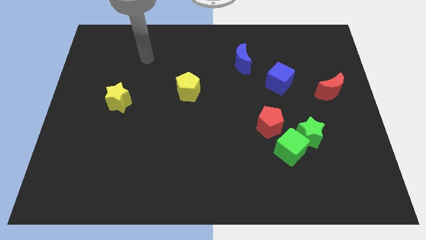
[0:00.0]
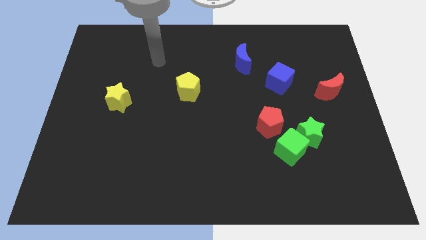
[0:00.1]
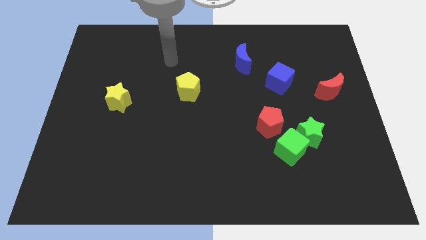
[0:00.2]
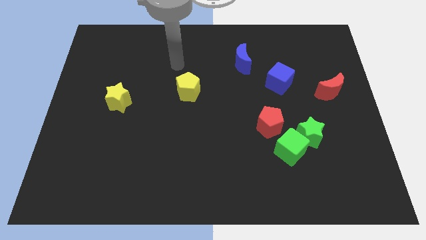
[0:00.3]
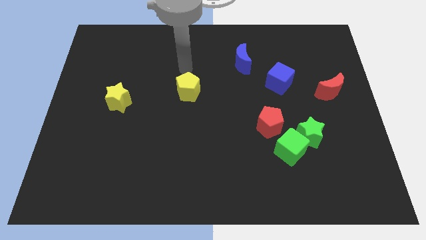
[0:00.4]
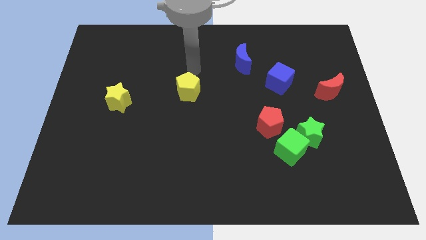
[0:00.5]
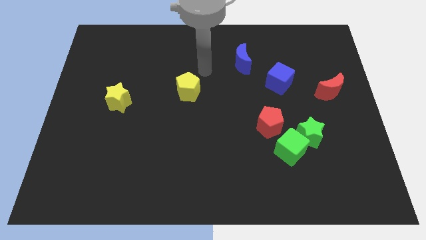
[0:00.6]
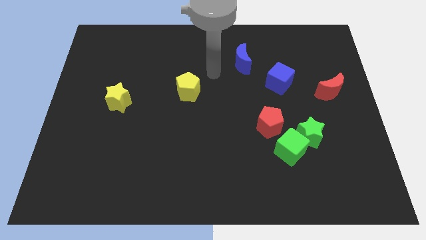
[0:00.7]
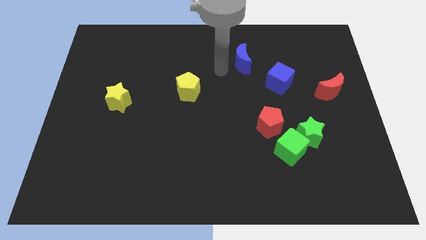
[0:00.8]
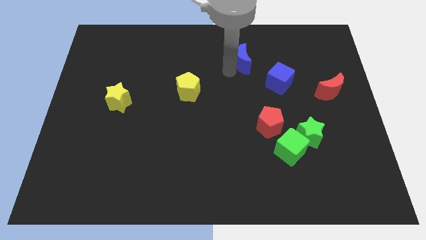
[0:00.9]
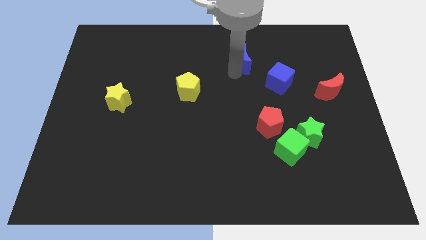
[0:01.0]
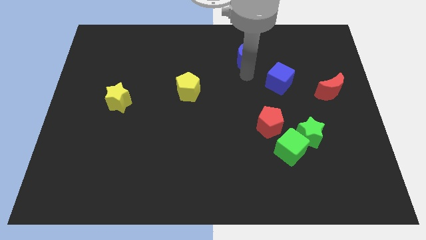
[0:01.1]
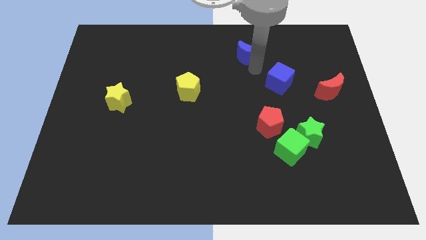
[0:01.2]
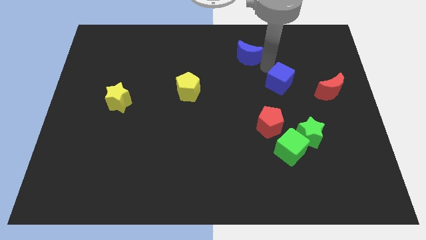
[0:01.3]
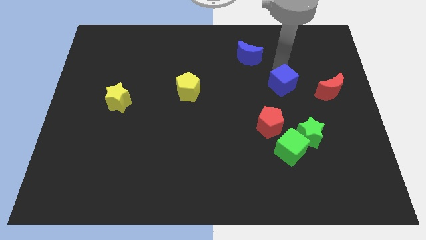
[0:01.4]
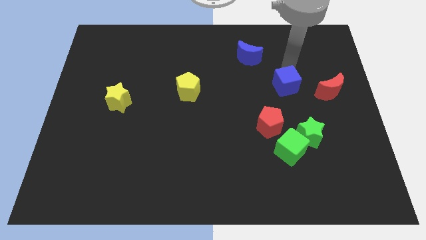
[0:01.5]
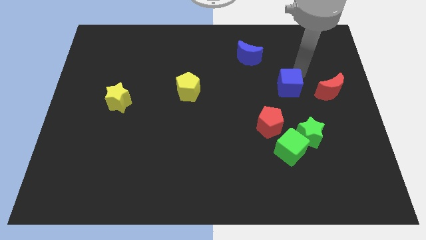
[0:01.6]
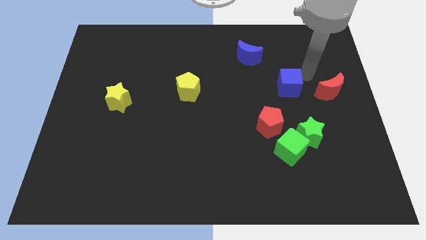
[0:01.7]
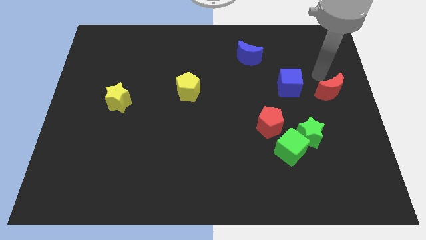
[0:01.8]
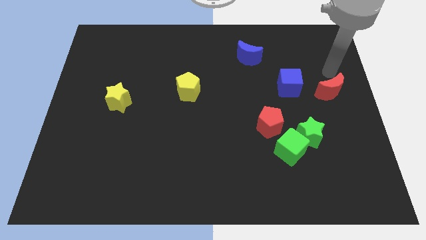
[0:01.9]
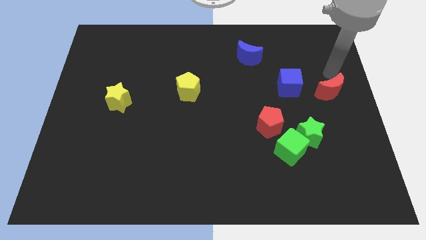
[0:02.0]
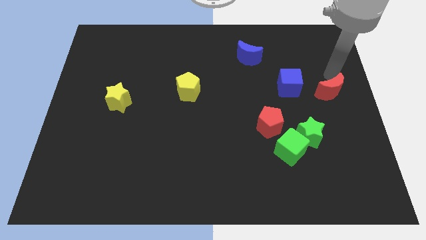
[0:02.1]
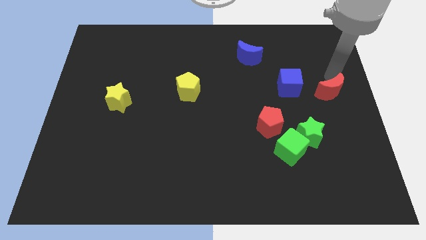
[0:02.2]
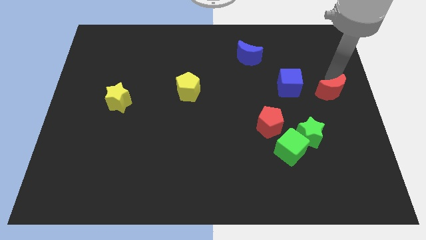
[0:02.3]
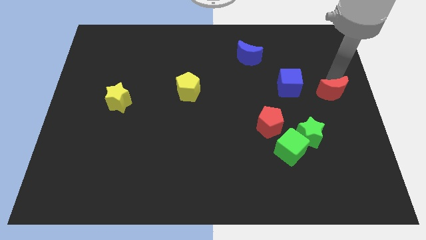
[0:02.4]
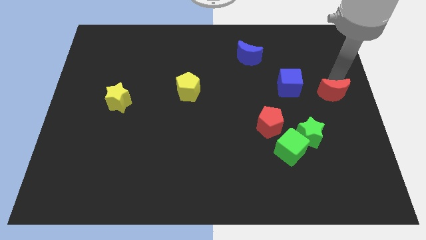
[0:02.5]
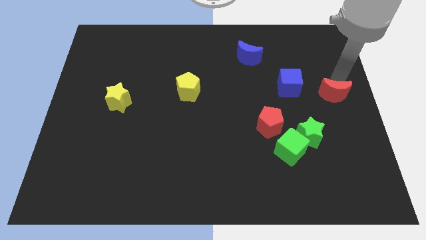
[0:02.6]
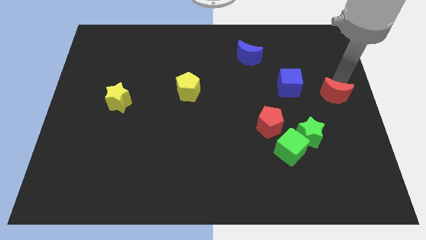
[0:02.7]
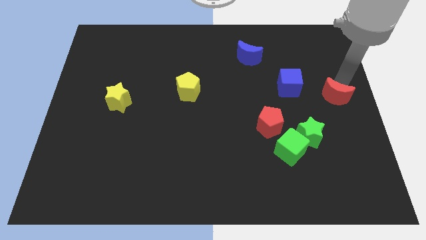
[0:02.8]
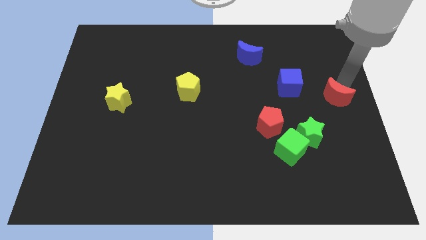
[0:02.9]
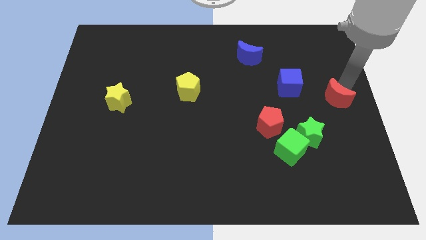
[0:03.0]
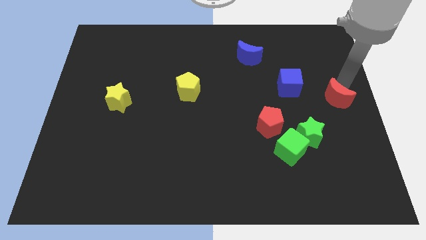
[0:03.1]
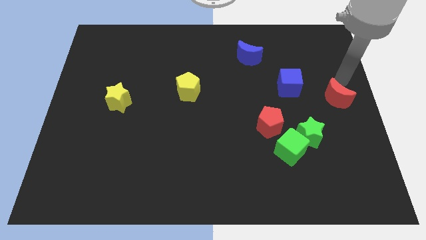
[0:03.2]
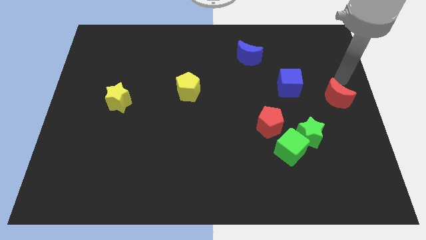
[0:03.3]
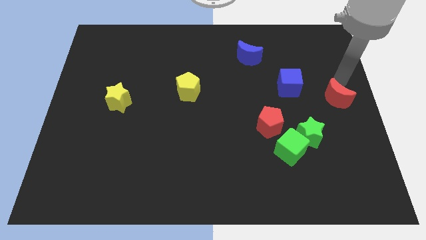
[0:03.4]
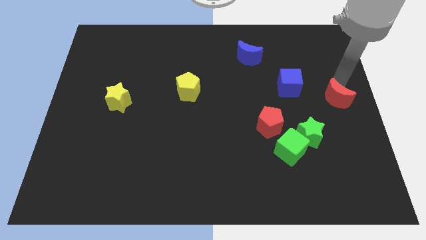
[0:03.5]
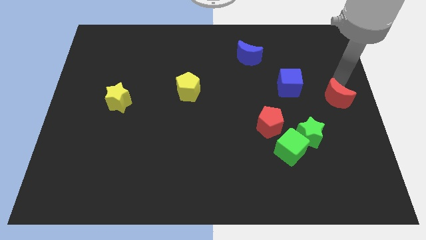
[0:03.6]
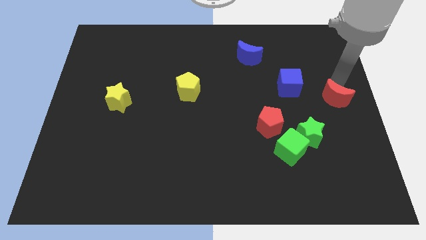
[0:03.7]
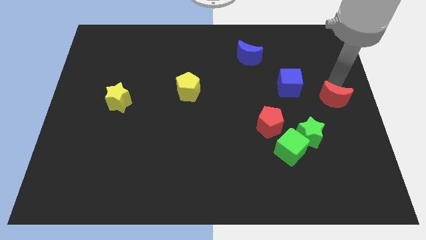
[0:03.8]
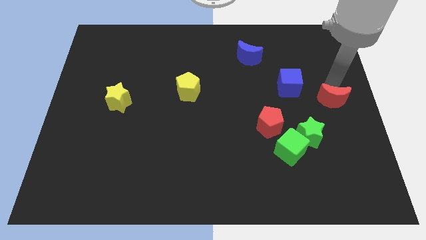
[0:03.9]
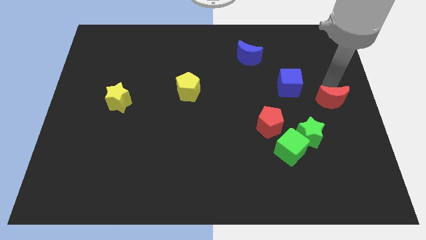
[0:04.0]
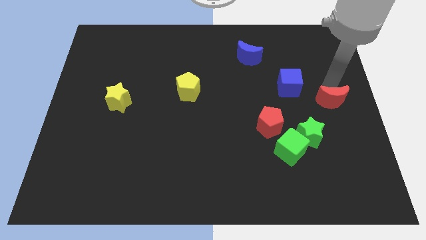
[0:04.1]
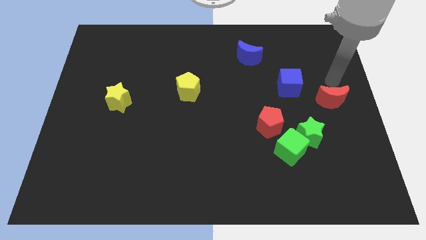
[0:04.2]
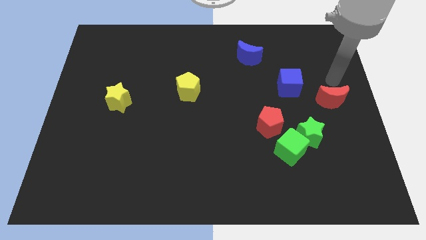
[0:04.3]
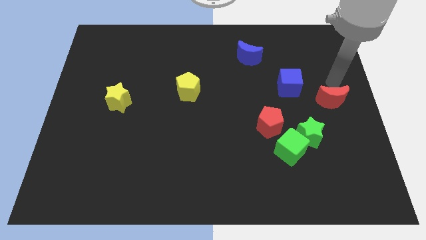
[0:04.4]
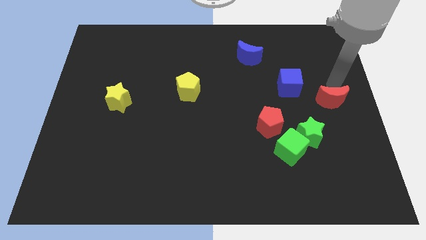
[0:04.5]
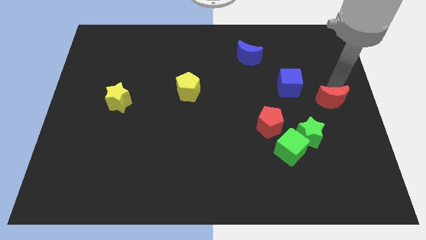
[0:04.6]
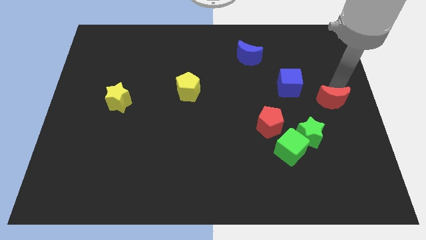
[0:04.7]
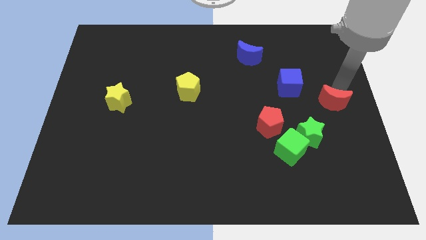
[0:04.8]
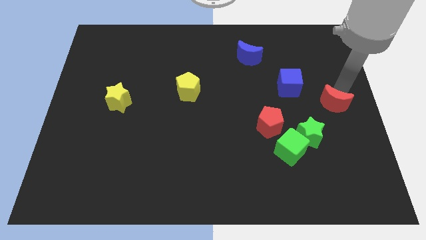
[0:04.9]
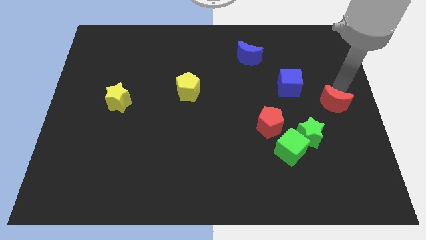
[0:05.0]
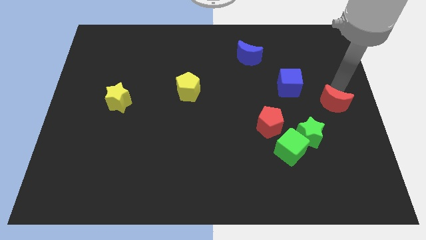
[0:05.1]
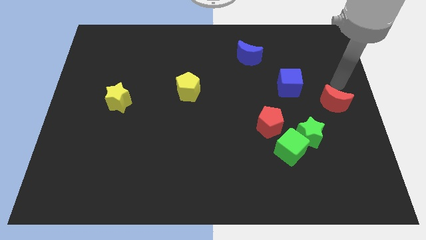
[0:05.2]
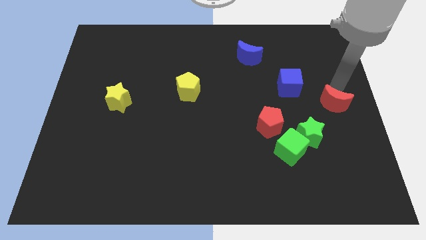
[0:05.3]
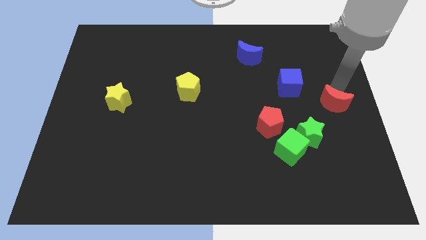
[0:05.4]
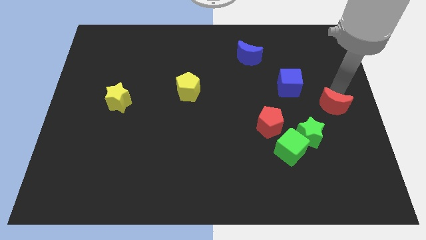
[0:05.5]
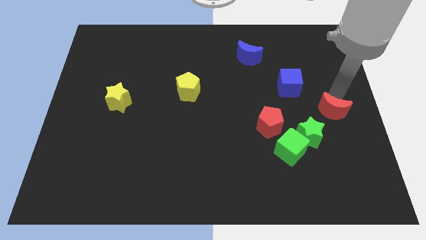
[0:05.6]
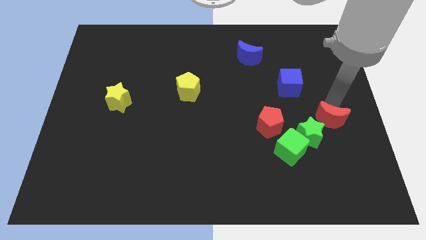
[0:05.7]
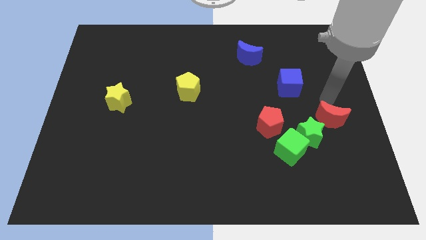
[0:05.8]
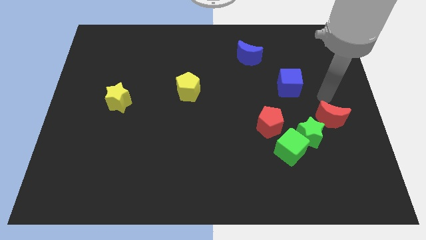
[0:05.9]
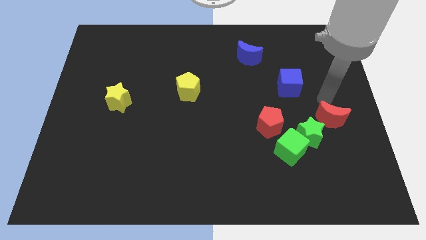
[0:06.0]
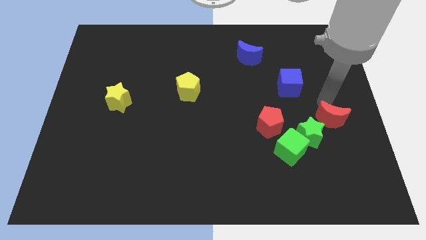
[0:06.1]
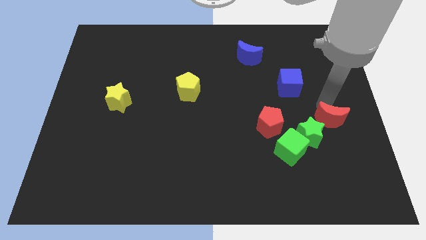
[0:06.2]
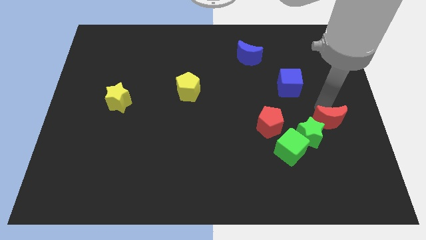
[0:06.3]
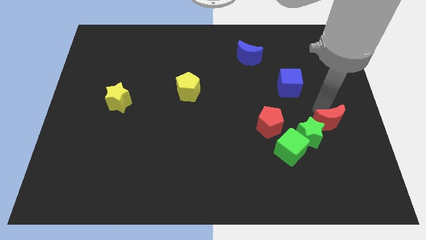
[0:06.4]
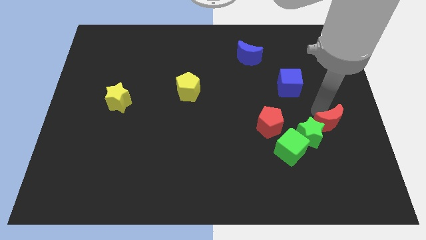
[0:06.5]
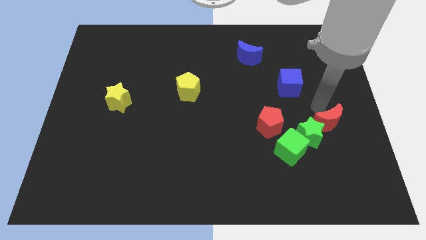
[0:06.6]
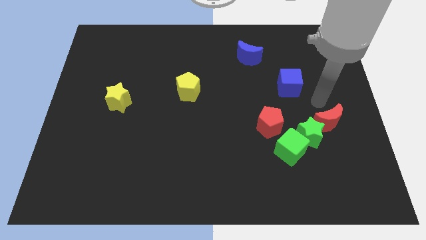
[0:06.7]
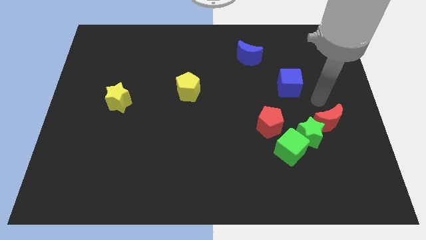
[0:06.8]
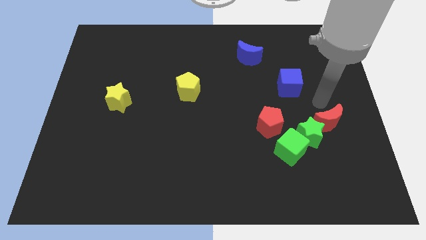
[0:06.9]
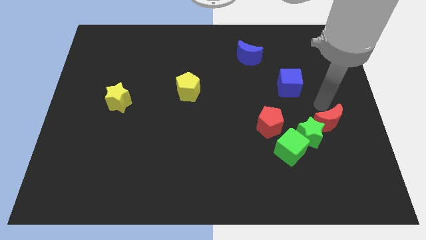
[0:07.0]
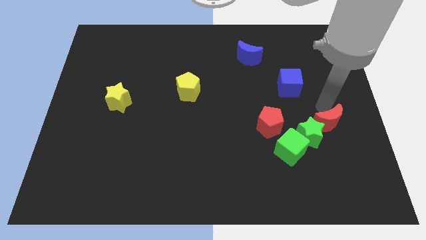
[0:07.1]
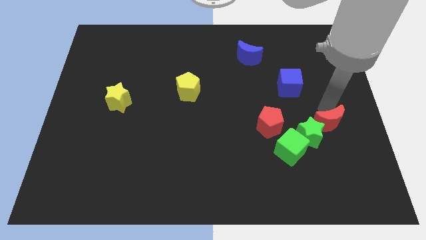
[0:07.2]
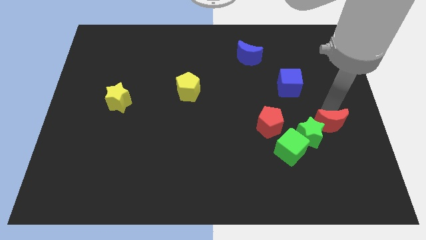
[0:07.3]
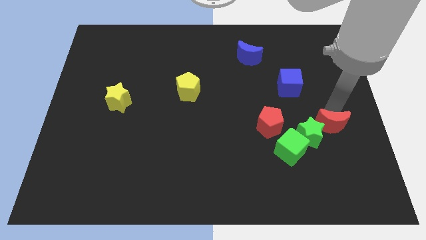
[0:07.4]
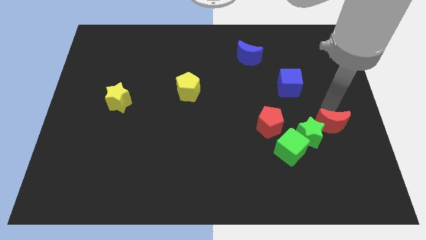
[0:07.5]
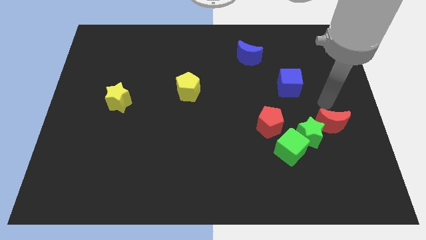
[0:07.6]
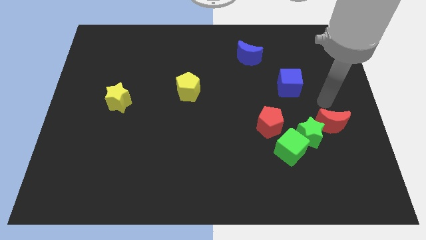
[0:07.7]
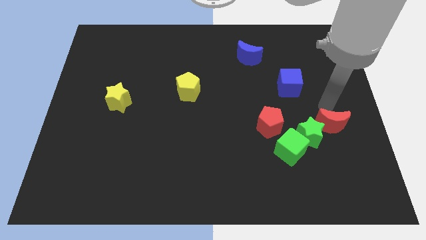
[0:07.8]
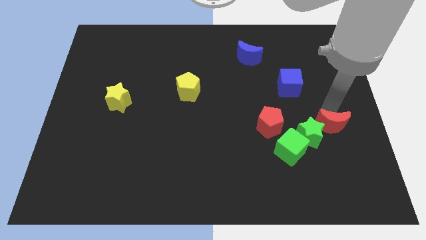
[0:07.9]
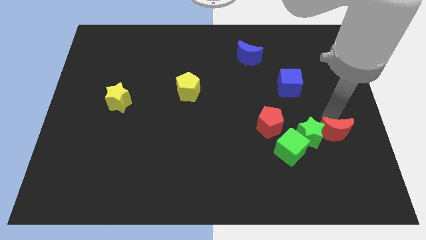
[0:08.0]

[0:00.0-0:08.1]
slide the red moon right of the green cube
